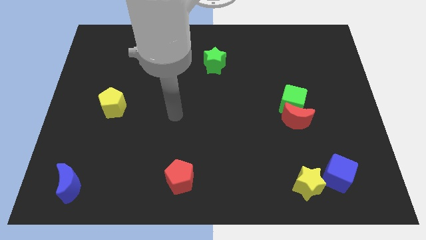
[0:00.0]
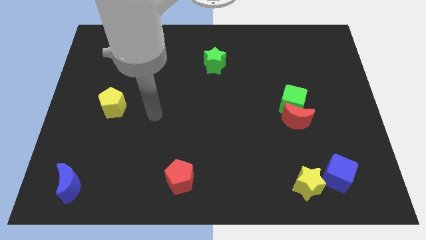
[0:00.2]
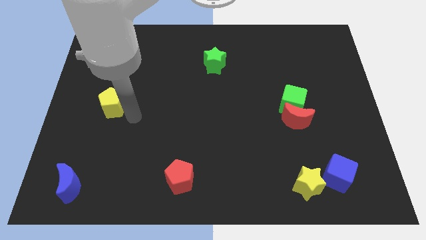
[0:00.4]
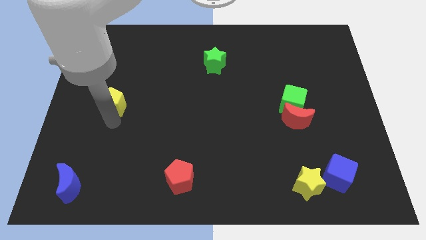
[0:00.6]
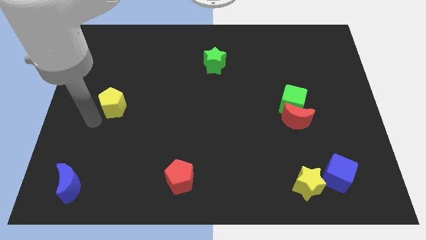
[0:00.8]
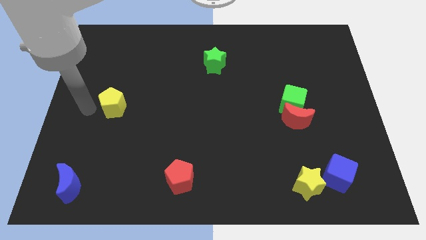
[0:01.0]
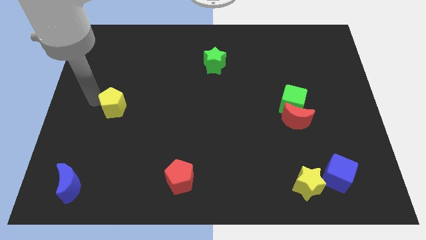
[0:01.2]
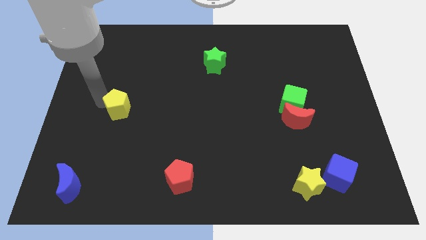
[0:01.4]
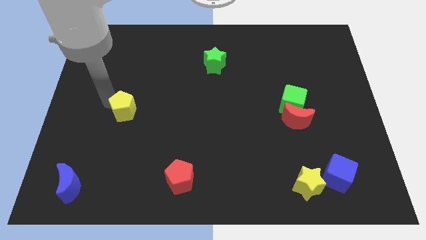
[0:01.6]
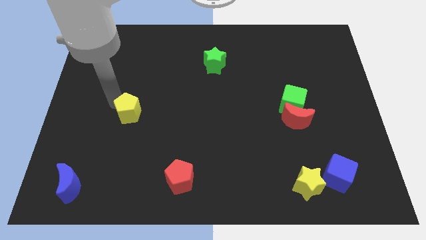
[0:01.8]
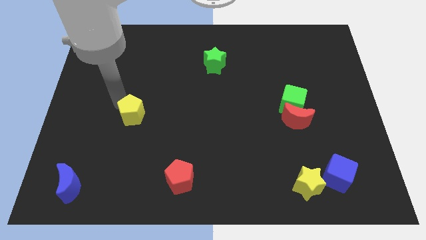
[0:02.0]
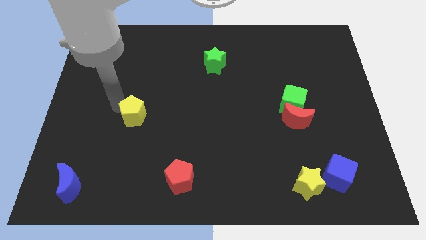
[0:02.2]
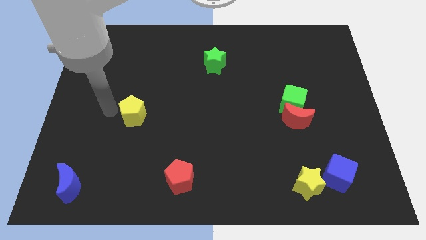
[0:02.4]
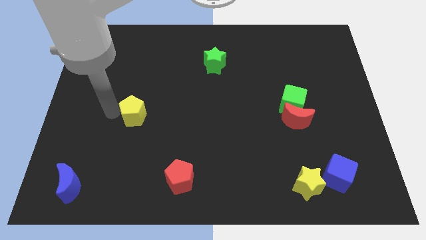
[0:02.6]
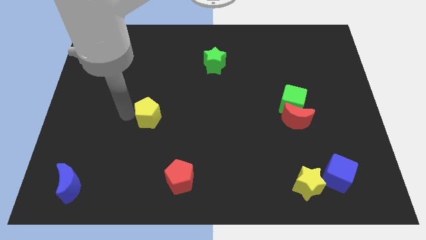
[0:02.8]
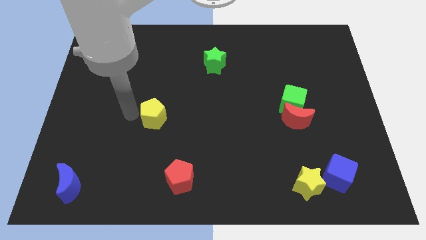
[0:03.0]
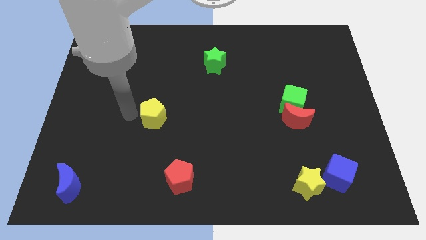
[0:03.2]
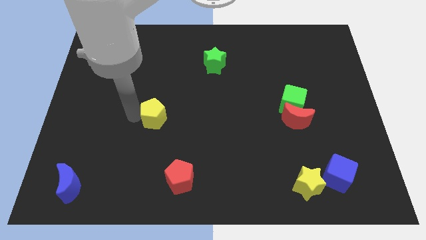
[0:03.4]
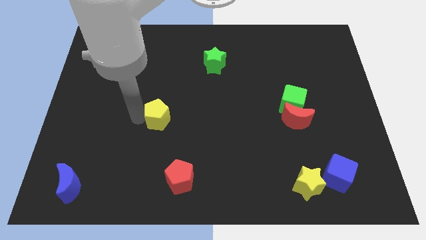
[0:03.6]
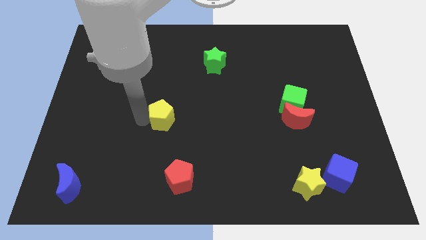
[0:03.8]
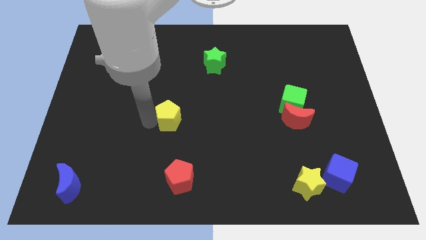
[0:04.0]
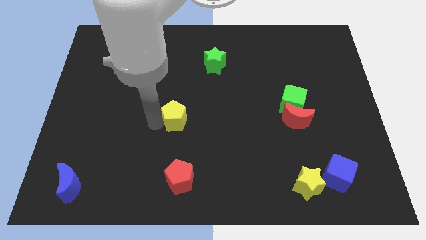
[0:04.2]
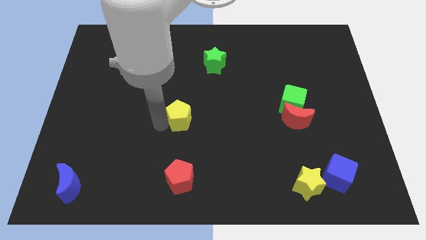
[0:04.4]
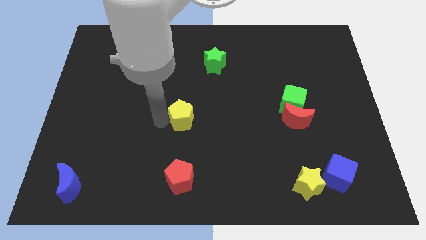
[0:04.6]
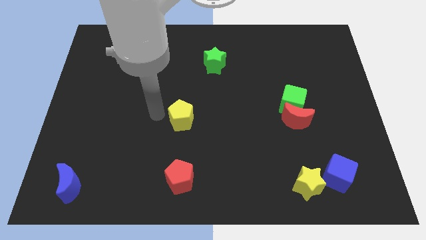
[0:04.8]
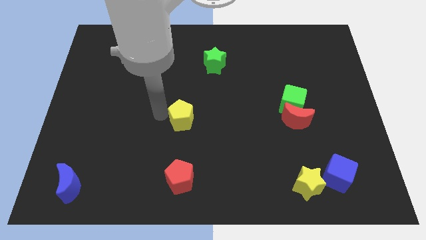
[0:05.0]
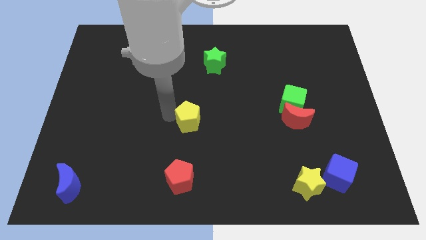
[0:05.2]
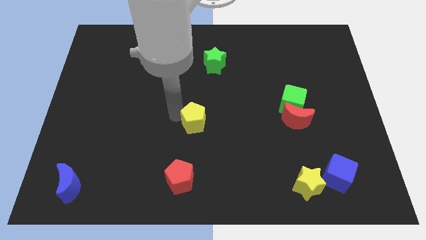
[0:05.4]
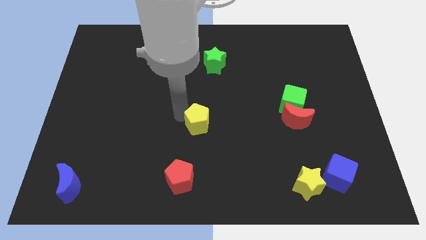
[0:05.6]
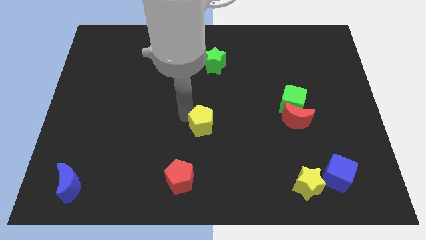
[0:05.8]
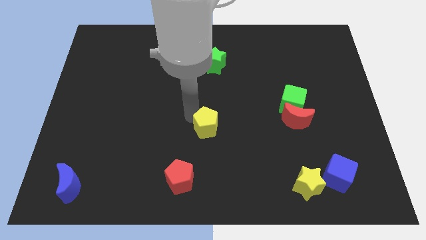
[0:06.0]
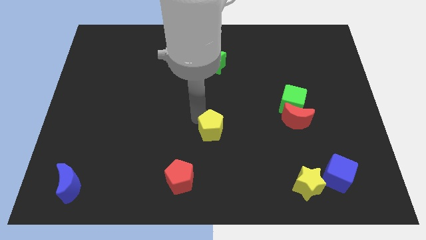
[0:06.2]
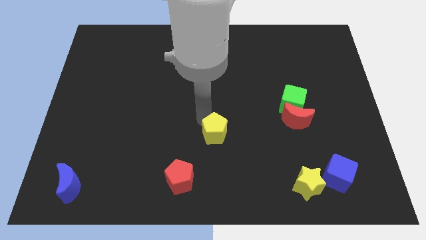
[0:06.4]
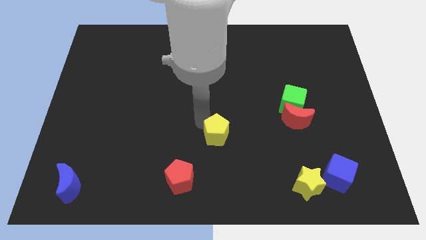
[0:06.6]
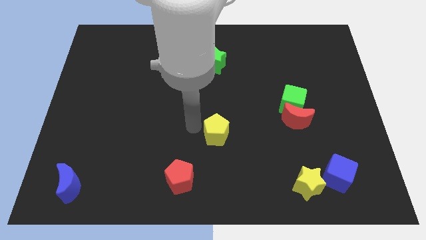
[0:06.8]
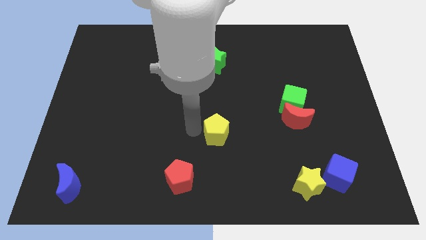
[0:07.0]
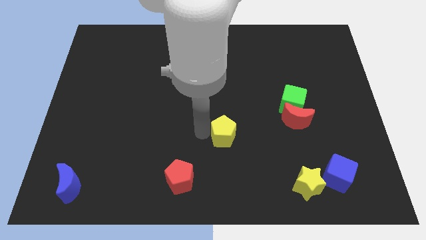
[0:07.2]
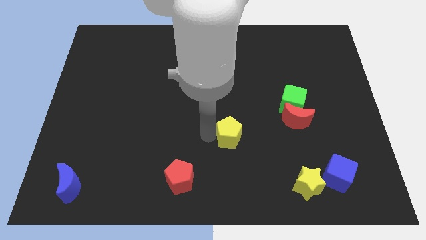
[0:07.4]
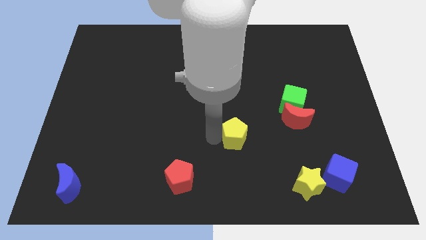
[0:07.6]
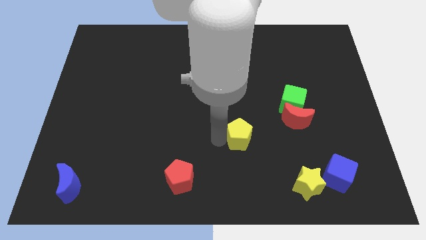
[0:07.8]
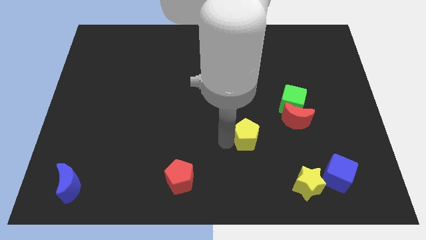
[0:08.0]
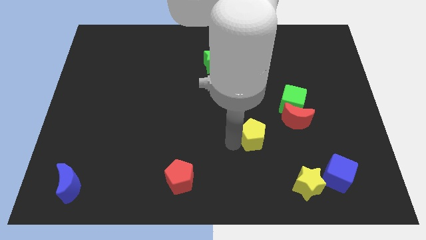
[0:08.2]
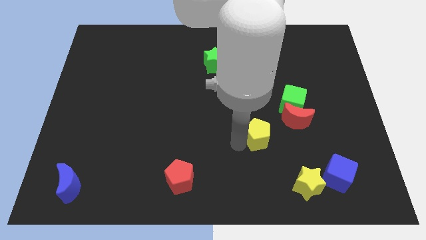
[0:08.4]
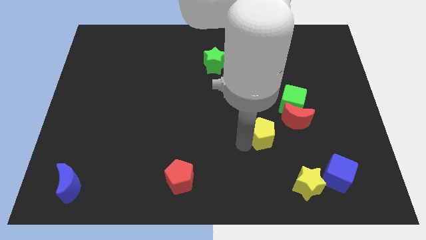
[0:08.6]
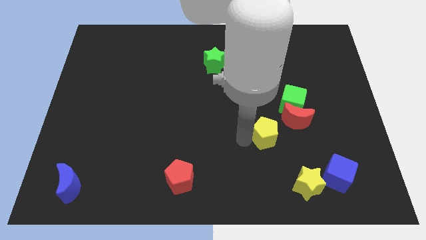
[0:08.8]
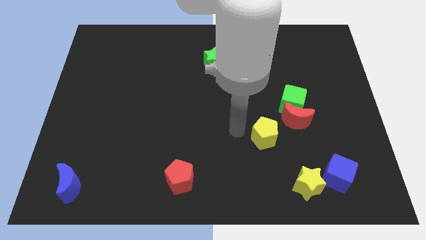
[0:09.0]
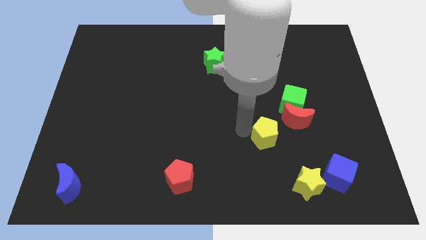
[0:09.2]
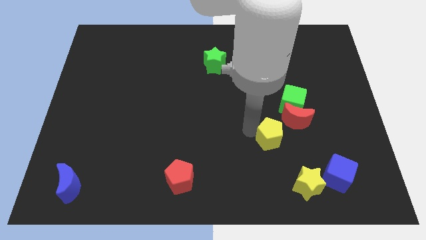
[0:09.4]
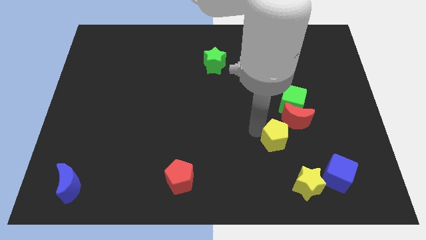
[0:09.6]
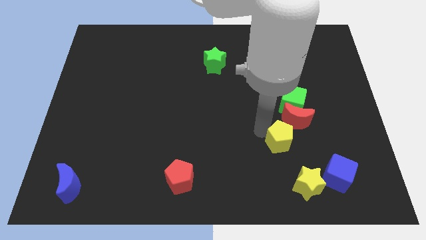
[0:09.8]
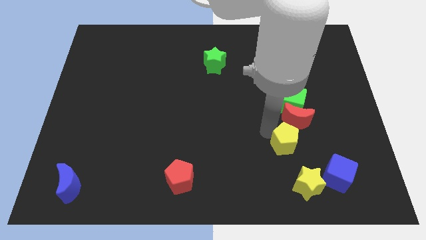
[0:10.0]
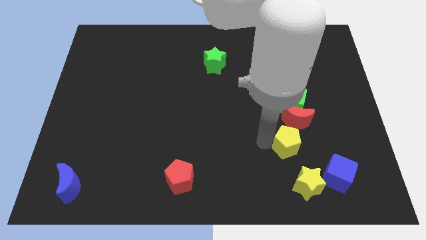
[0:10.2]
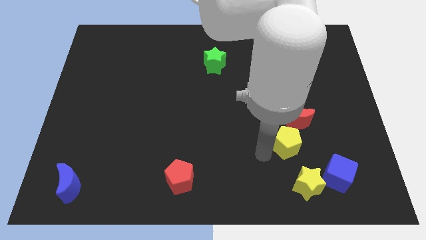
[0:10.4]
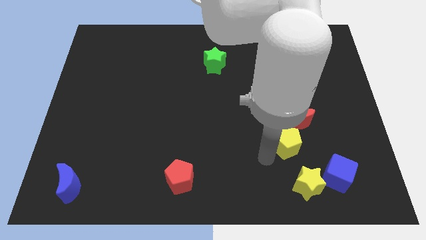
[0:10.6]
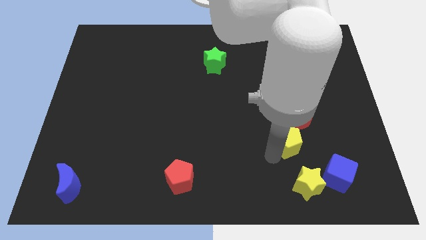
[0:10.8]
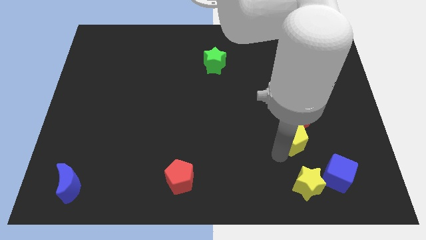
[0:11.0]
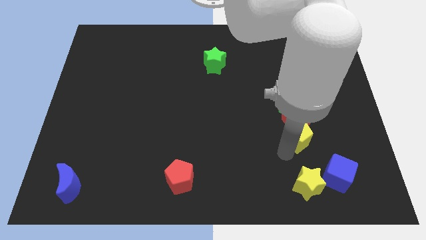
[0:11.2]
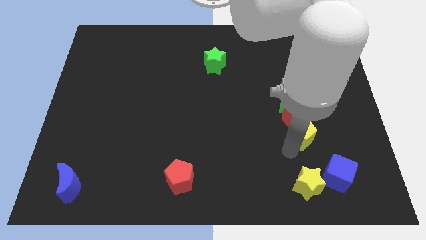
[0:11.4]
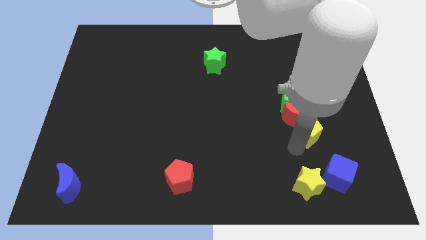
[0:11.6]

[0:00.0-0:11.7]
put the yellow pentagon to the bottom right side of the green cube

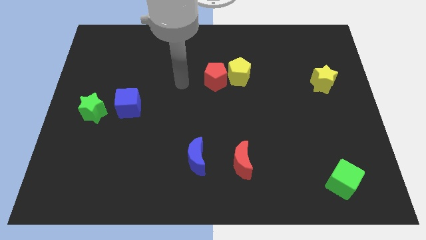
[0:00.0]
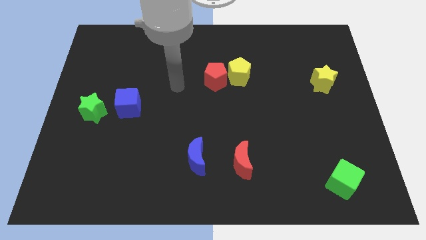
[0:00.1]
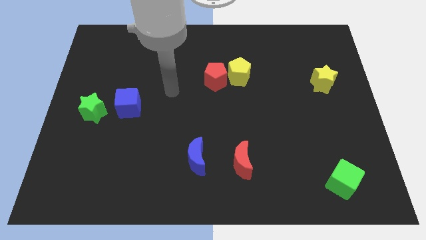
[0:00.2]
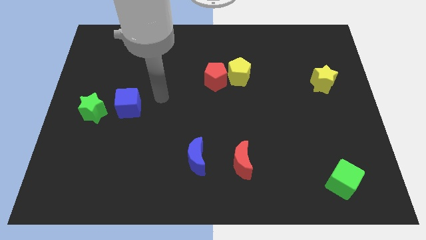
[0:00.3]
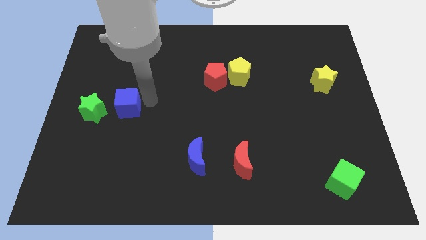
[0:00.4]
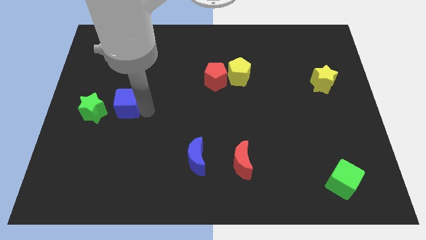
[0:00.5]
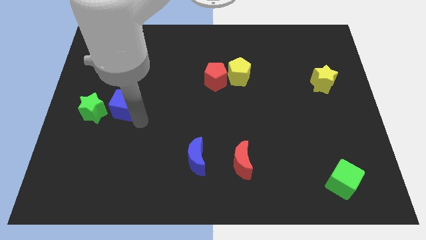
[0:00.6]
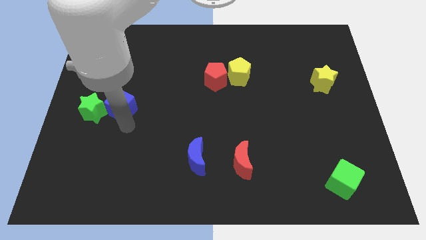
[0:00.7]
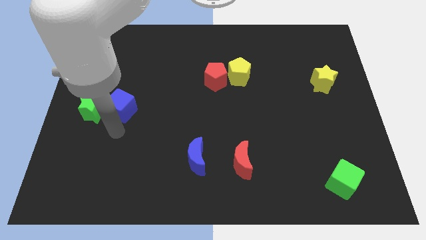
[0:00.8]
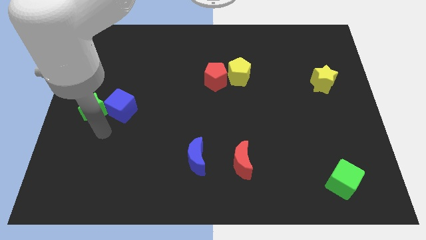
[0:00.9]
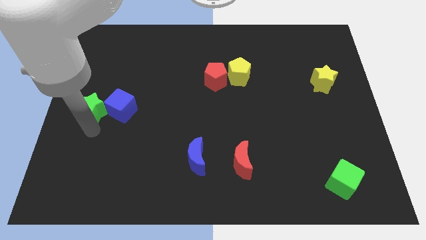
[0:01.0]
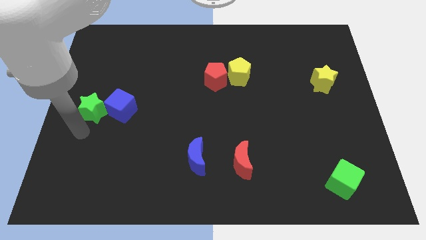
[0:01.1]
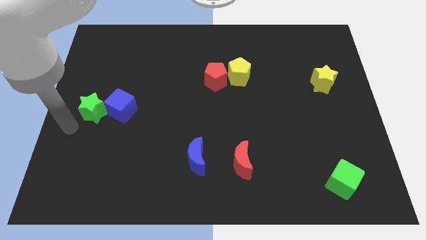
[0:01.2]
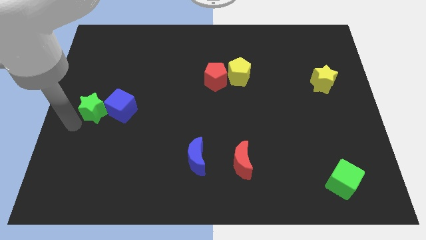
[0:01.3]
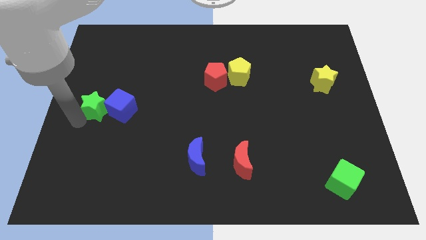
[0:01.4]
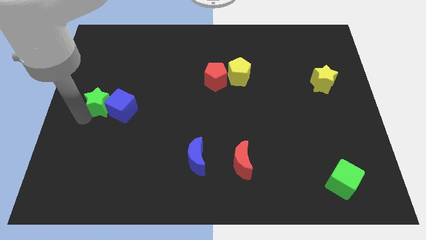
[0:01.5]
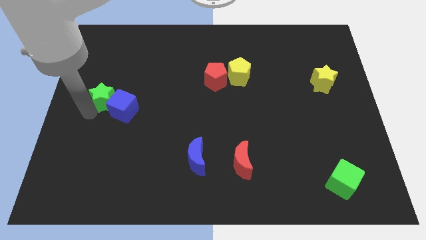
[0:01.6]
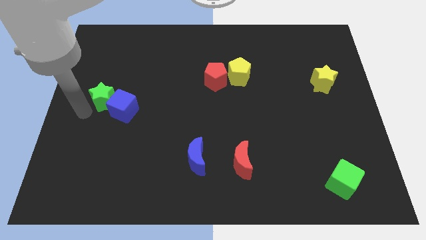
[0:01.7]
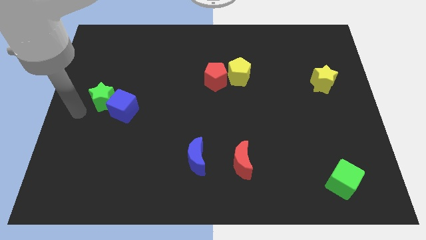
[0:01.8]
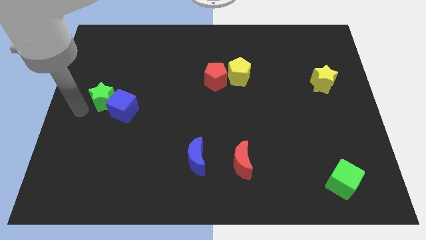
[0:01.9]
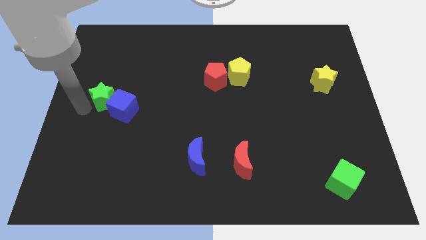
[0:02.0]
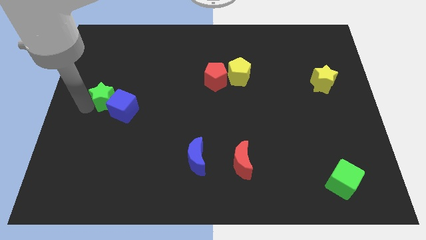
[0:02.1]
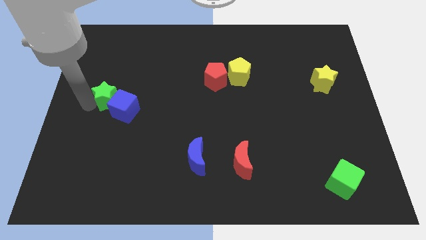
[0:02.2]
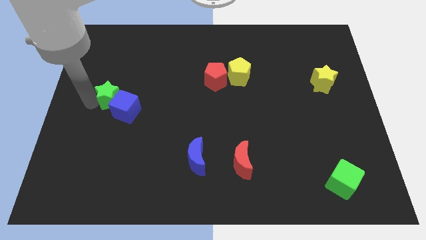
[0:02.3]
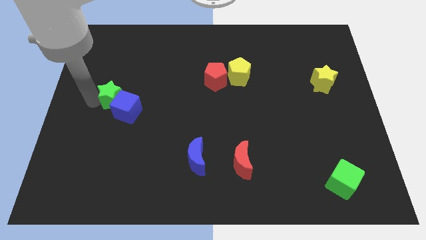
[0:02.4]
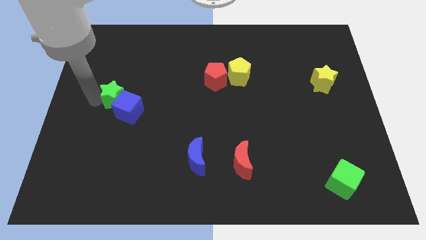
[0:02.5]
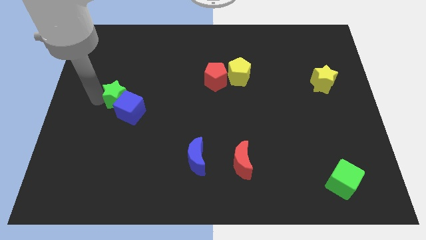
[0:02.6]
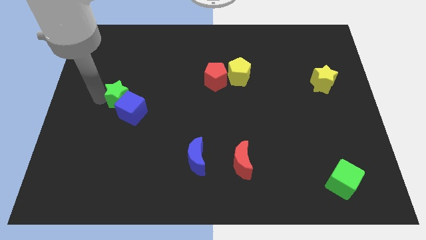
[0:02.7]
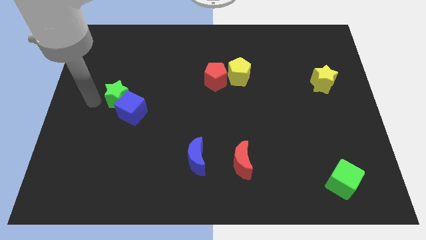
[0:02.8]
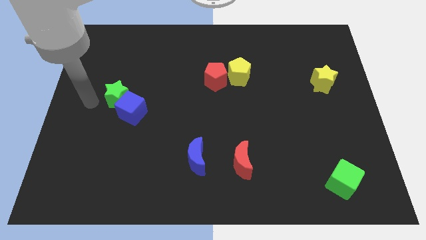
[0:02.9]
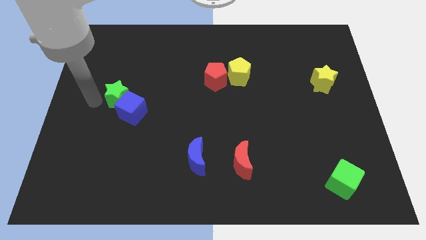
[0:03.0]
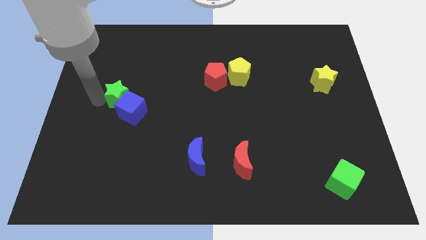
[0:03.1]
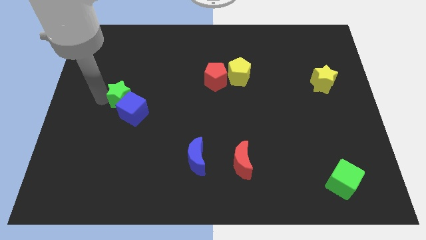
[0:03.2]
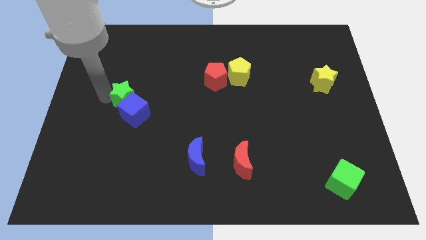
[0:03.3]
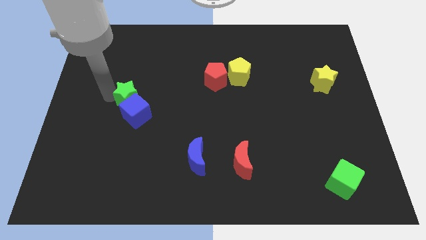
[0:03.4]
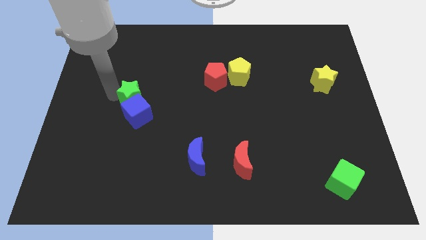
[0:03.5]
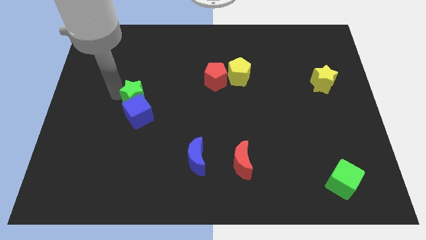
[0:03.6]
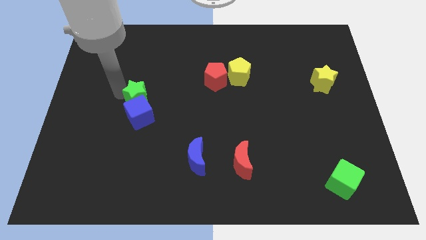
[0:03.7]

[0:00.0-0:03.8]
put the green star diagonally up and to the right of the blue cube
